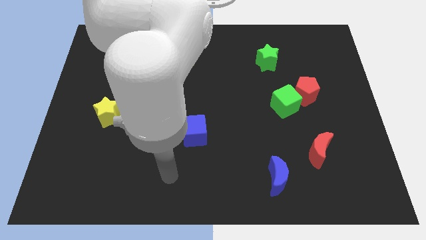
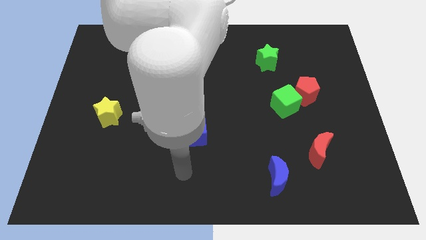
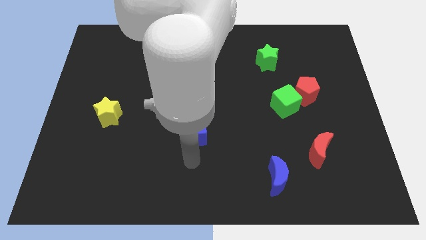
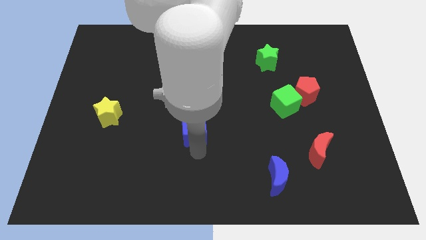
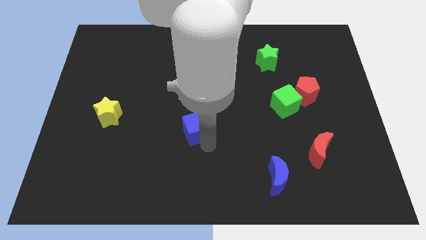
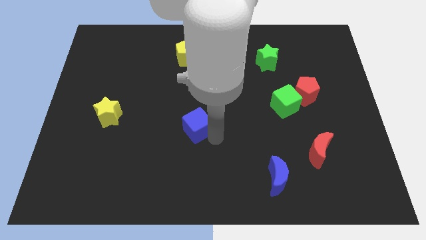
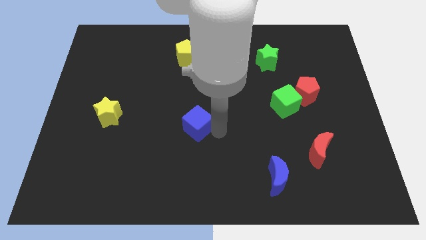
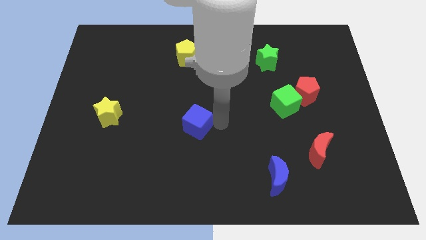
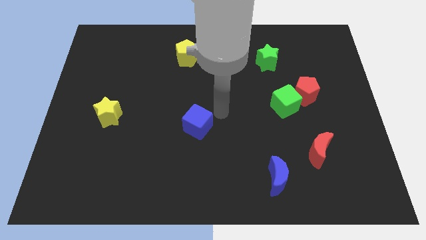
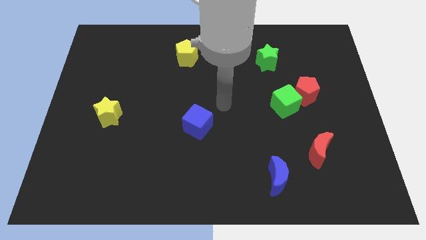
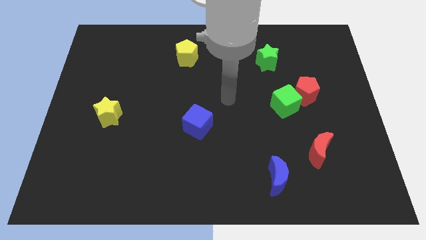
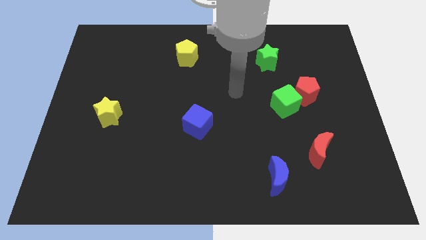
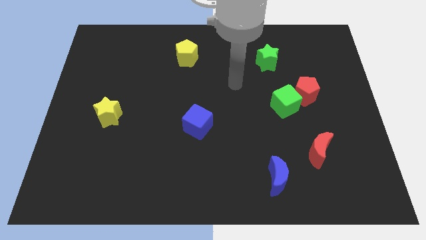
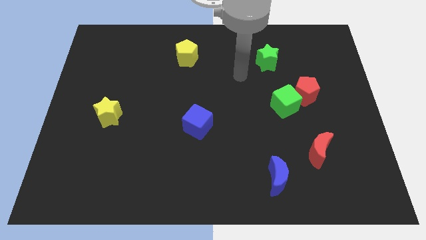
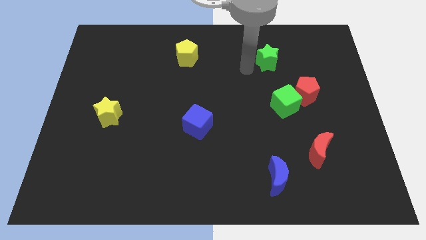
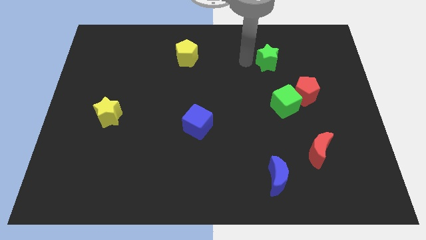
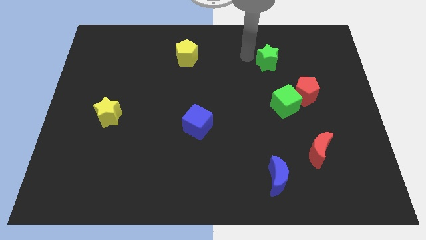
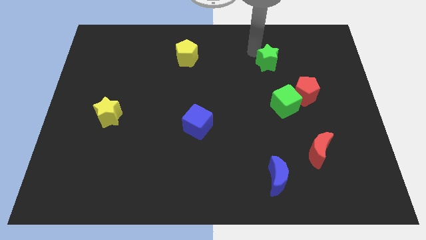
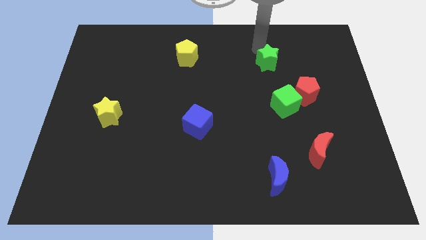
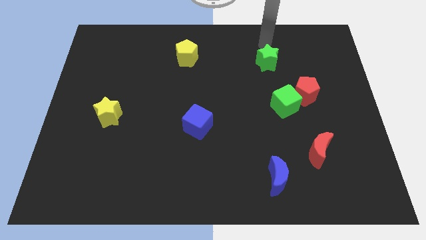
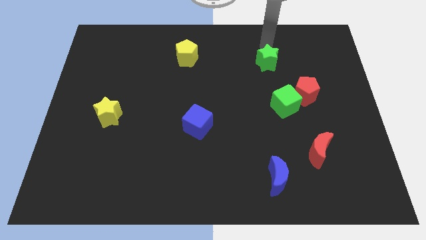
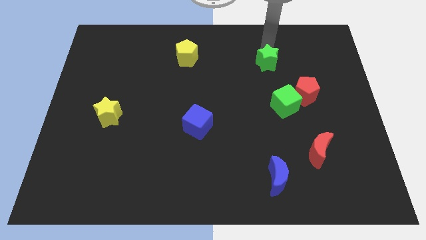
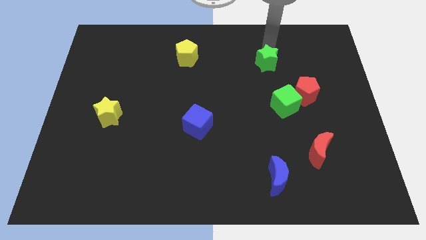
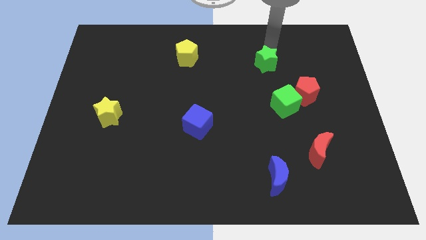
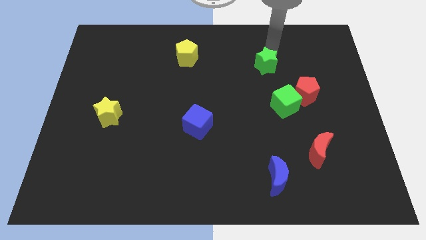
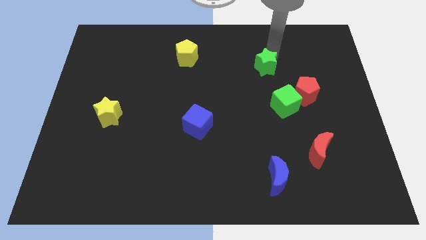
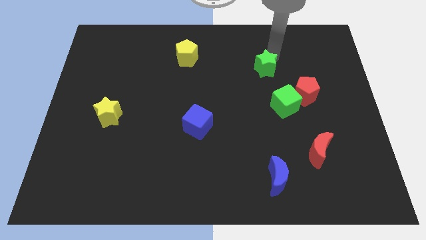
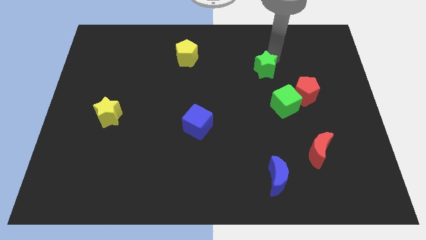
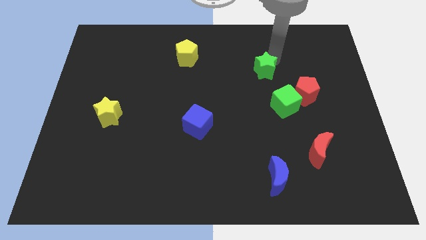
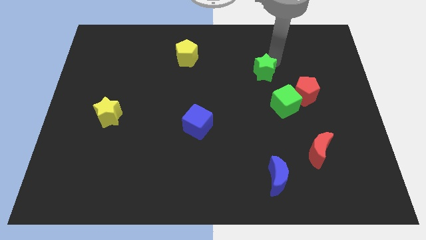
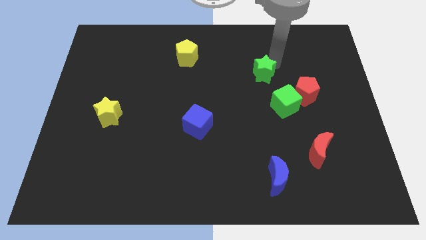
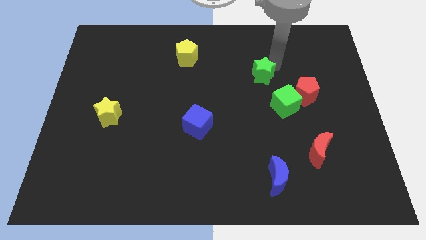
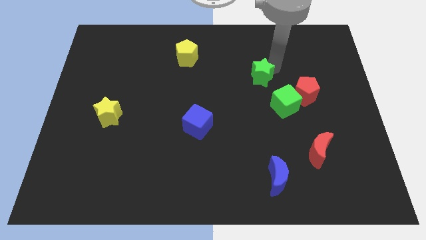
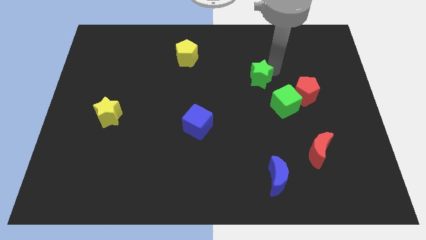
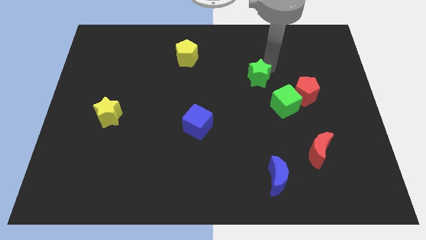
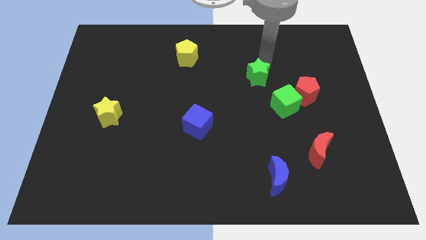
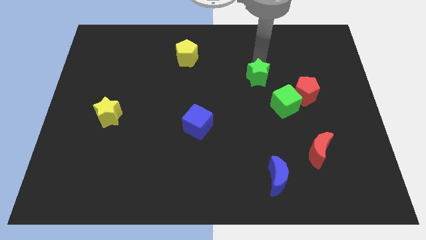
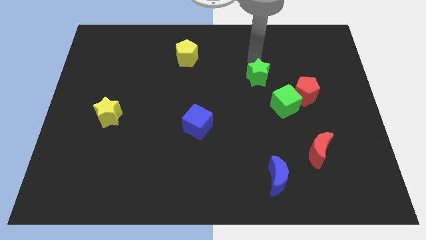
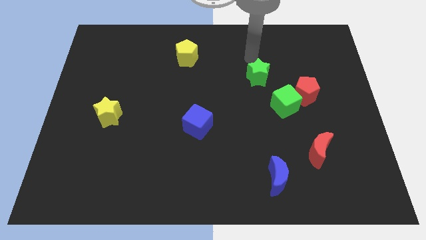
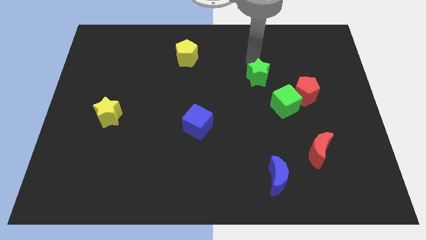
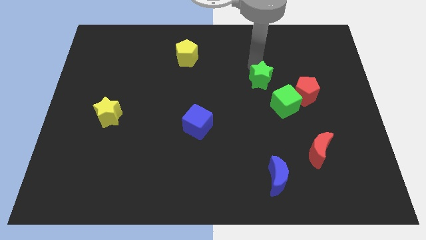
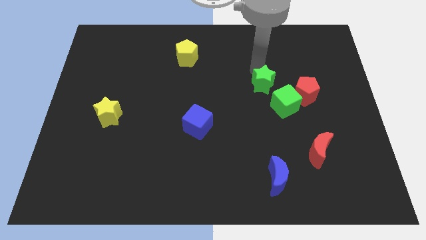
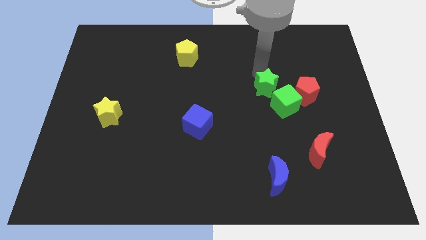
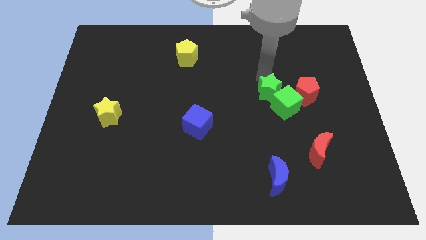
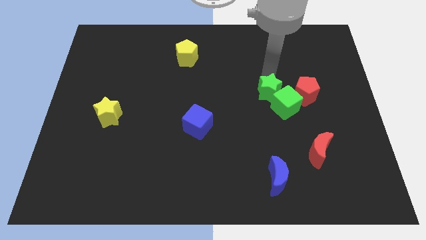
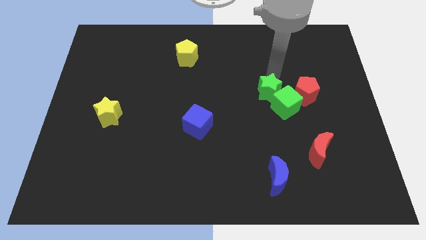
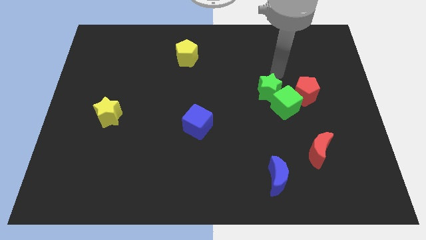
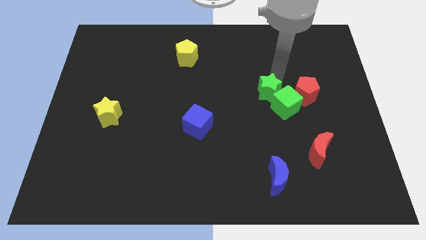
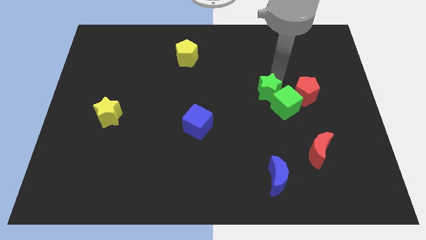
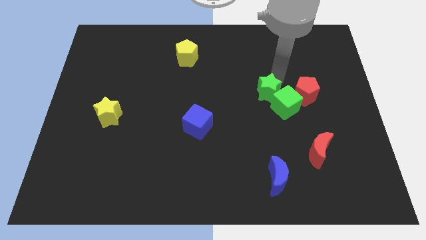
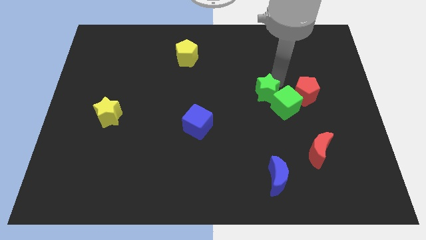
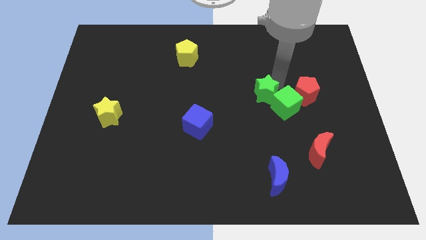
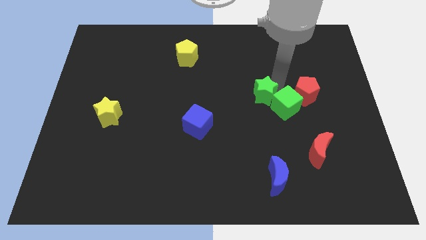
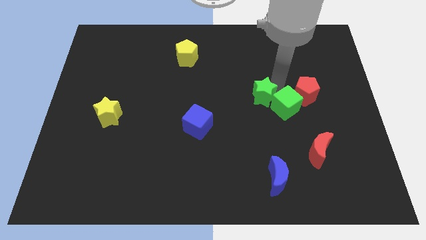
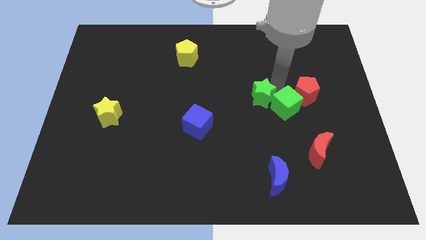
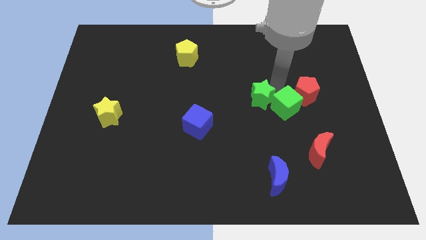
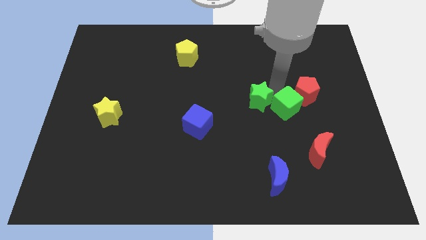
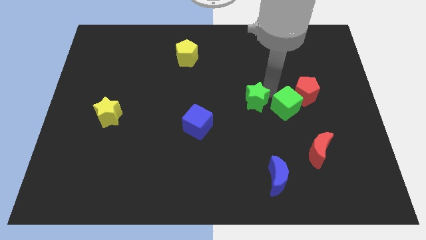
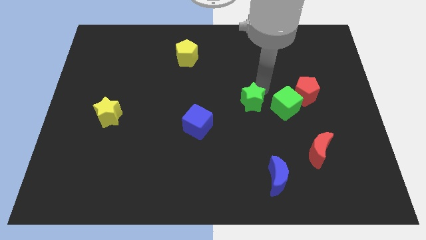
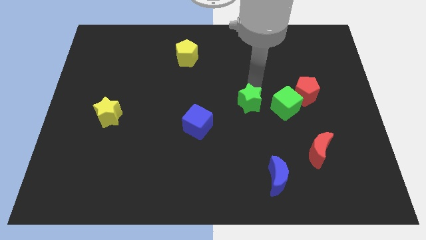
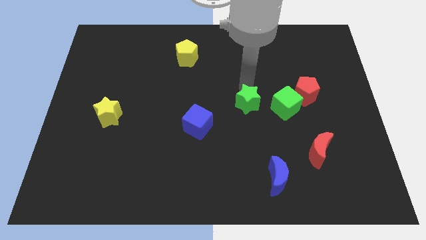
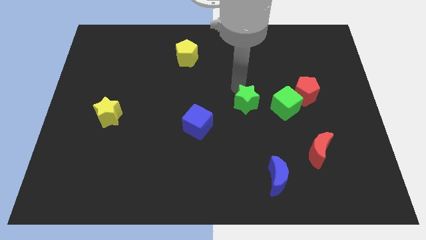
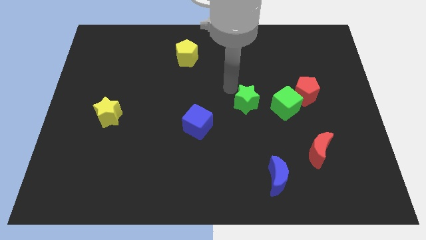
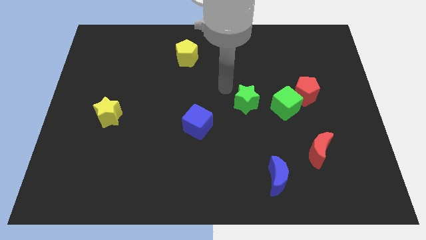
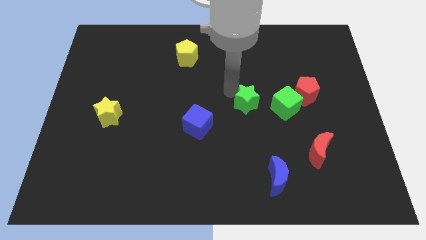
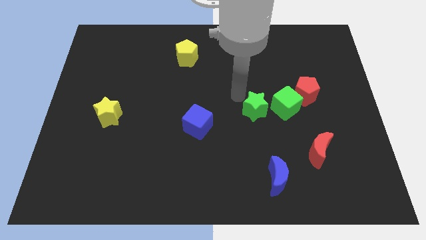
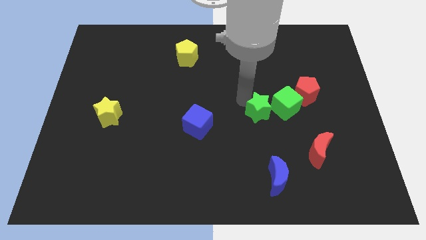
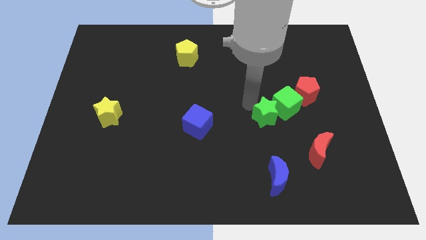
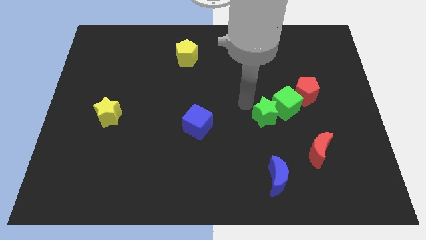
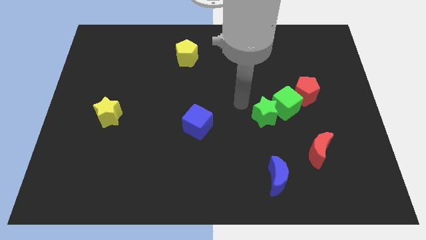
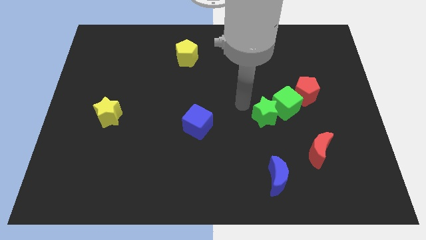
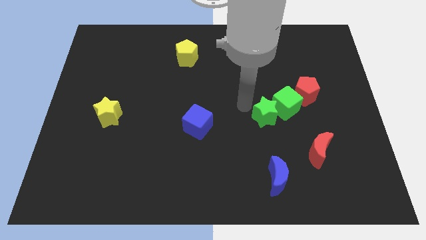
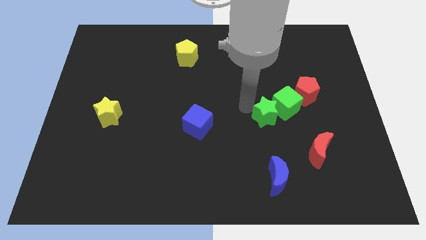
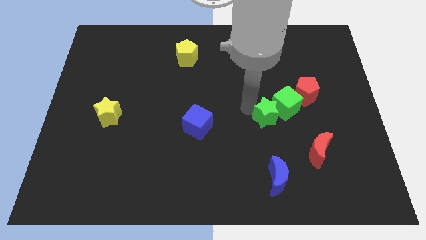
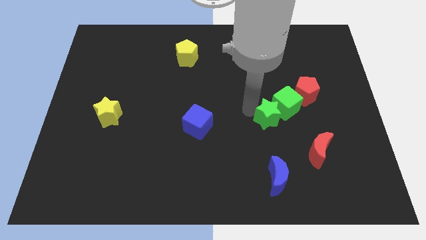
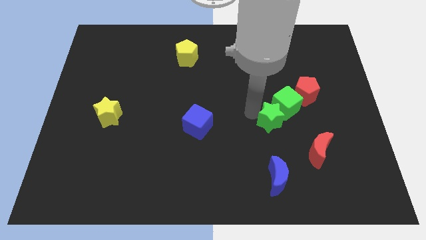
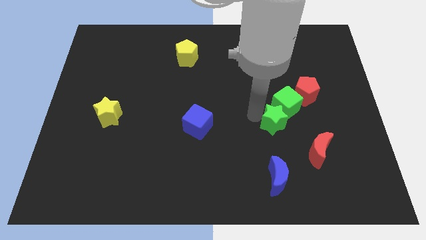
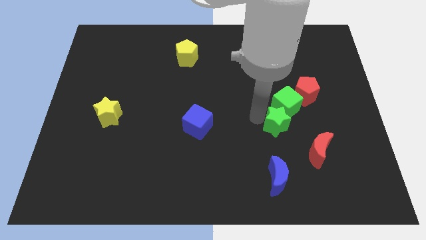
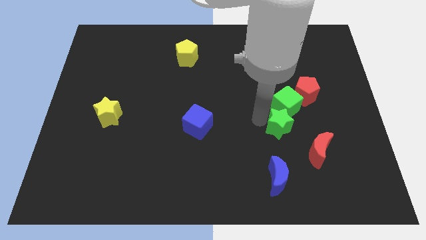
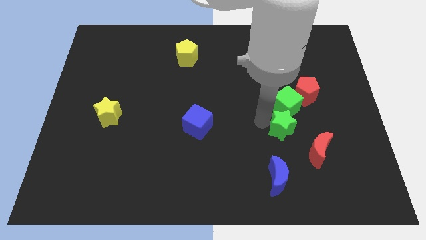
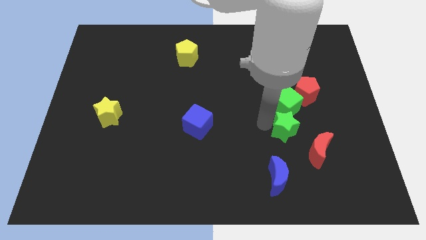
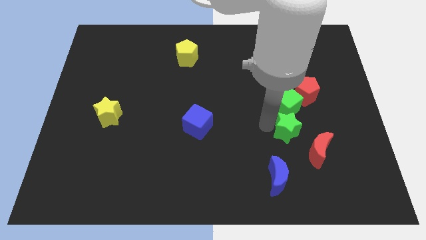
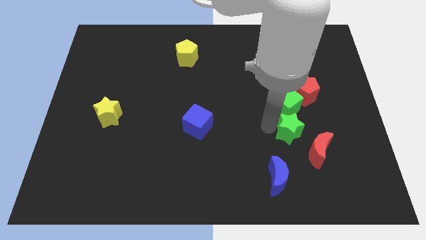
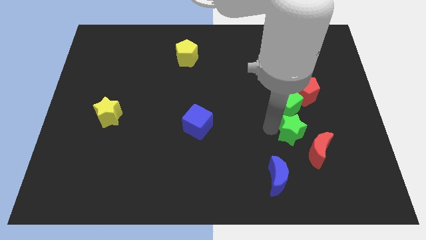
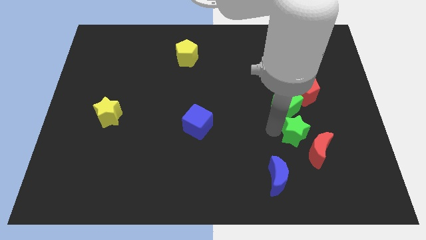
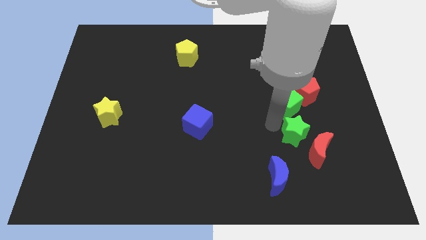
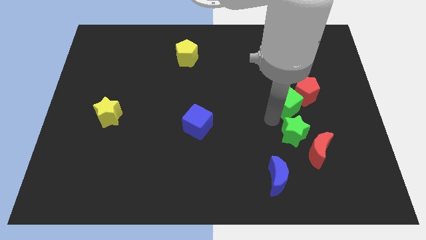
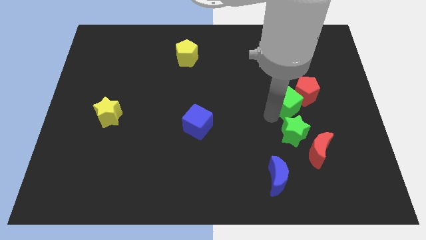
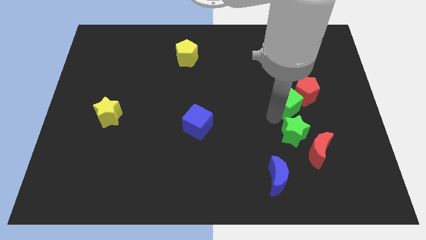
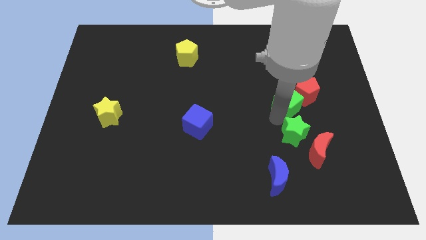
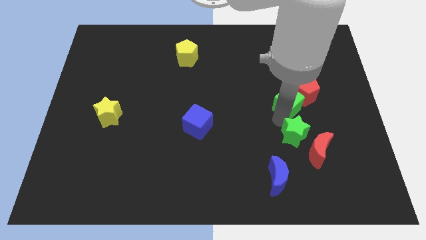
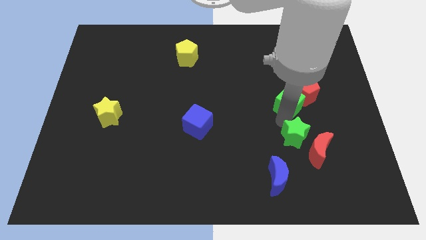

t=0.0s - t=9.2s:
push the green star to the red moon
